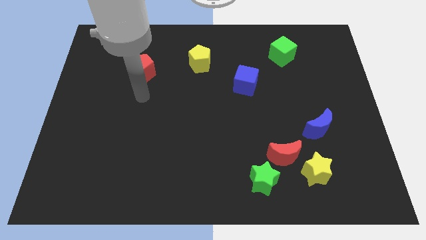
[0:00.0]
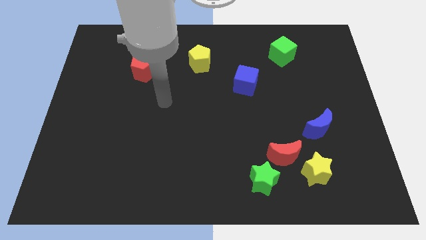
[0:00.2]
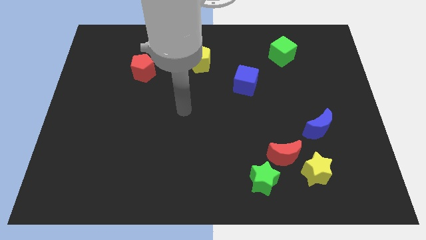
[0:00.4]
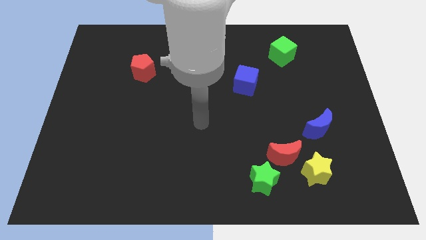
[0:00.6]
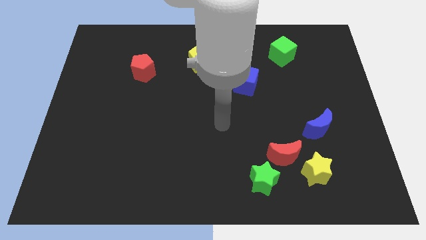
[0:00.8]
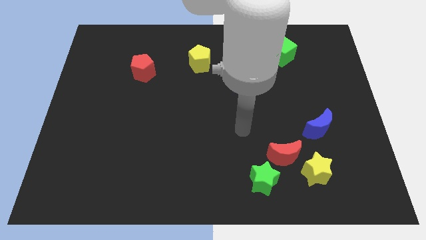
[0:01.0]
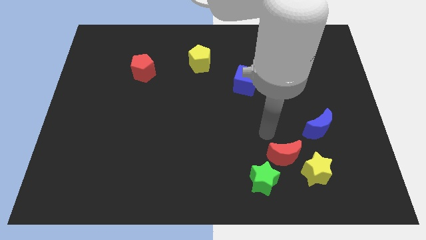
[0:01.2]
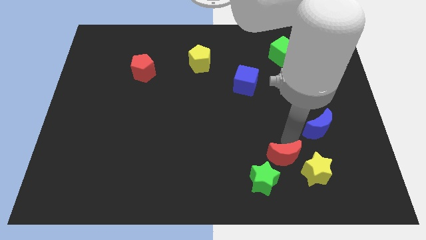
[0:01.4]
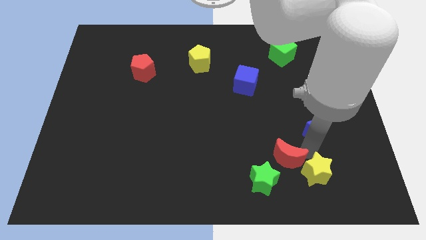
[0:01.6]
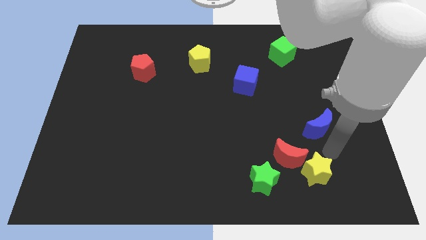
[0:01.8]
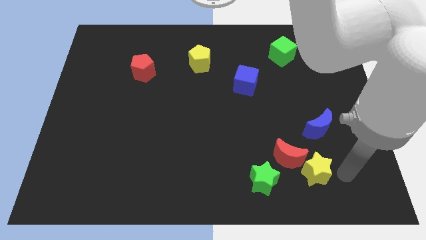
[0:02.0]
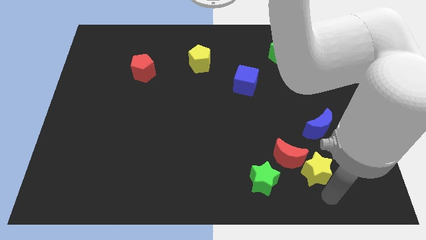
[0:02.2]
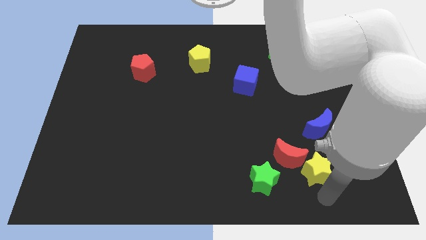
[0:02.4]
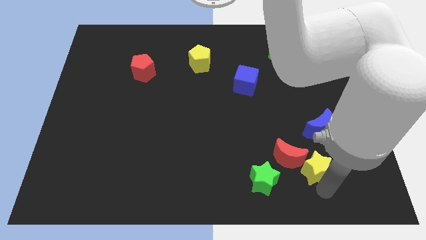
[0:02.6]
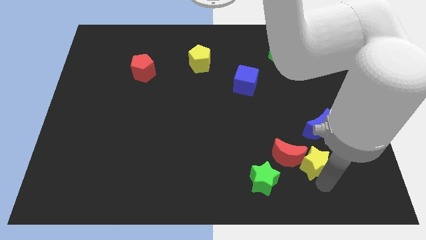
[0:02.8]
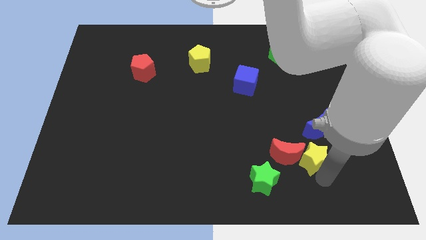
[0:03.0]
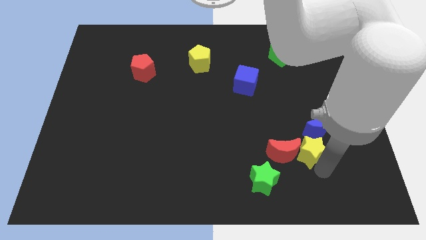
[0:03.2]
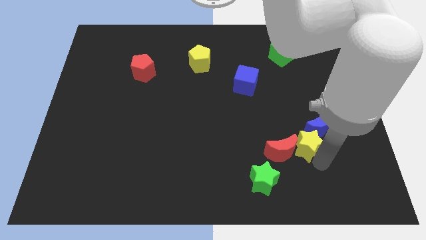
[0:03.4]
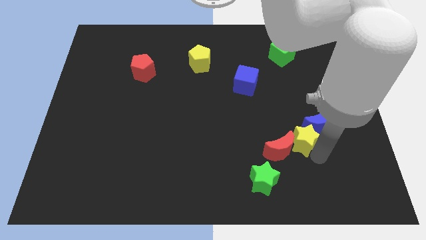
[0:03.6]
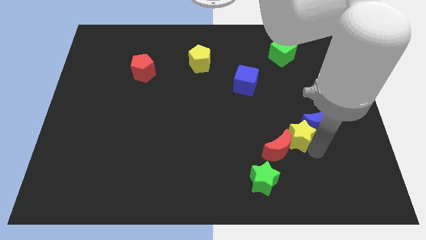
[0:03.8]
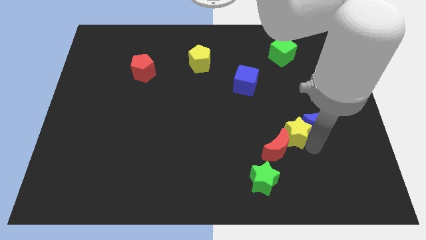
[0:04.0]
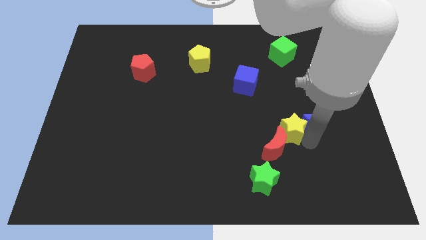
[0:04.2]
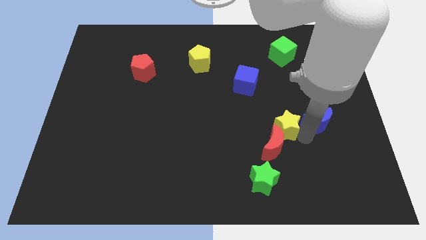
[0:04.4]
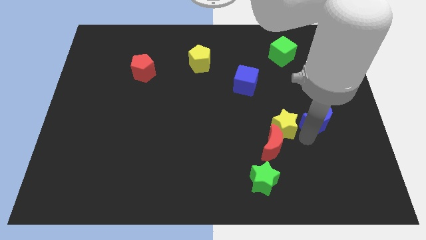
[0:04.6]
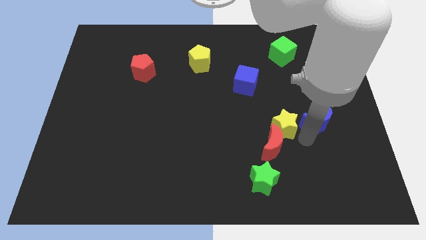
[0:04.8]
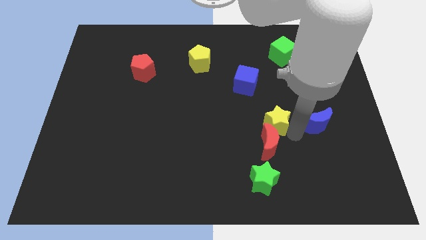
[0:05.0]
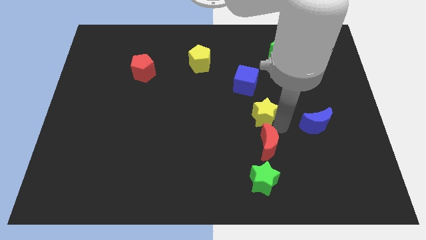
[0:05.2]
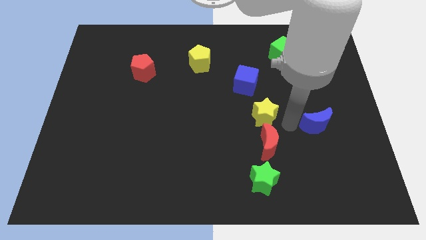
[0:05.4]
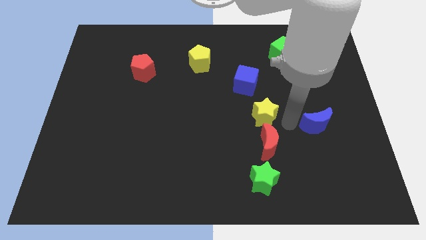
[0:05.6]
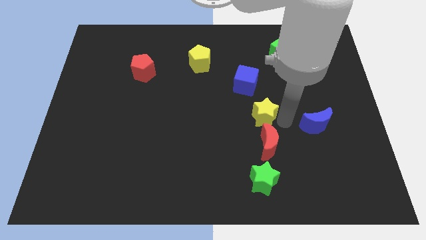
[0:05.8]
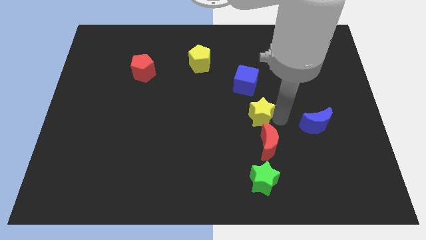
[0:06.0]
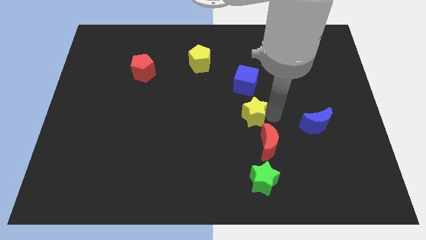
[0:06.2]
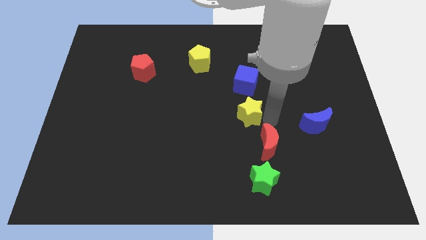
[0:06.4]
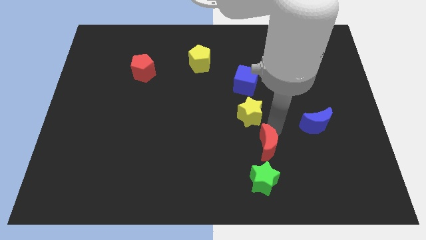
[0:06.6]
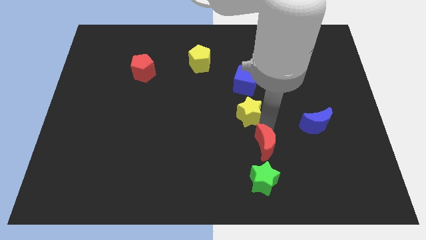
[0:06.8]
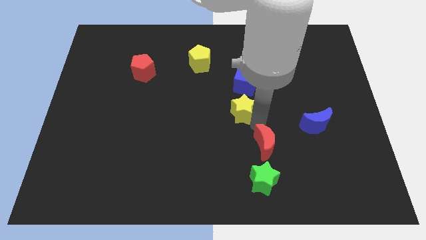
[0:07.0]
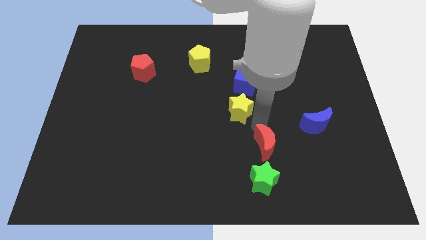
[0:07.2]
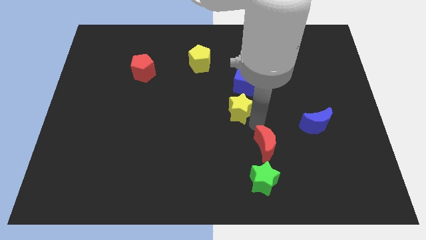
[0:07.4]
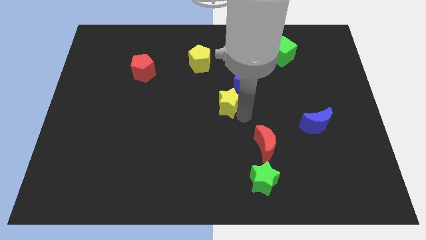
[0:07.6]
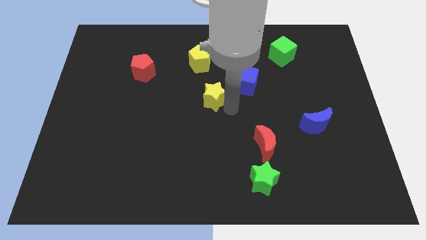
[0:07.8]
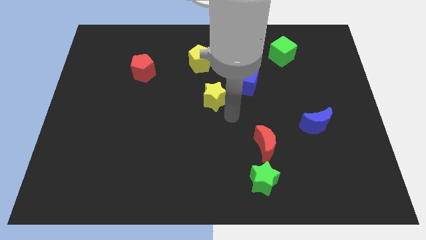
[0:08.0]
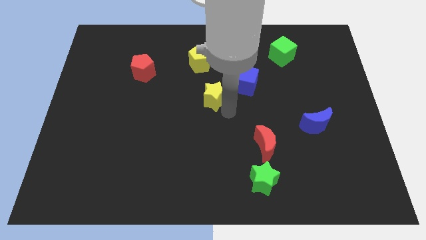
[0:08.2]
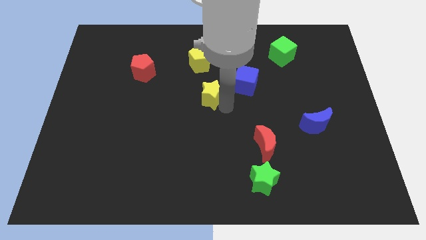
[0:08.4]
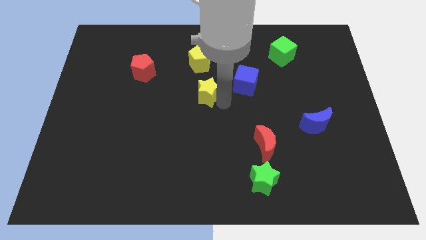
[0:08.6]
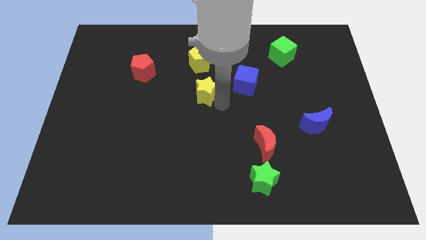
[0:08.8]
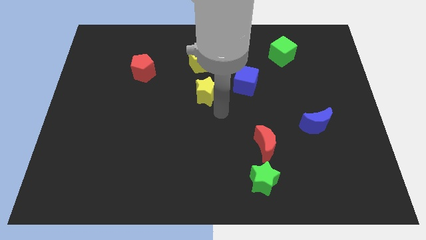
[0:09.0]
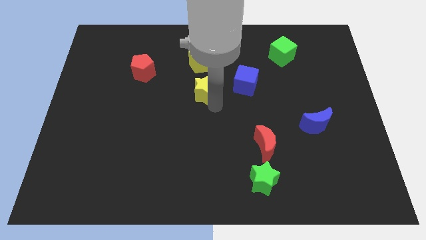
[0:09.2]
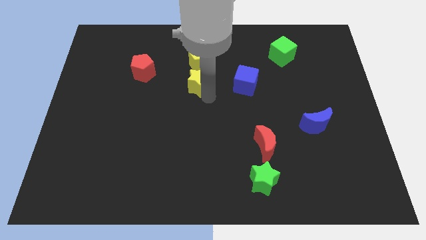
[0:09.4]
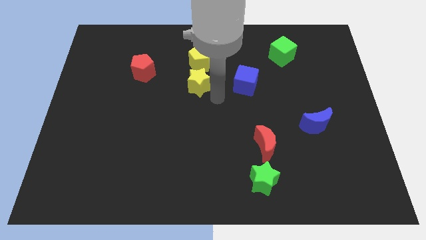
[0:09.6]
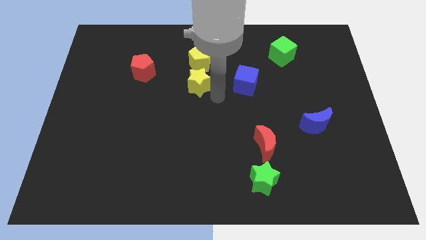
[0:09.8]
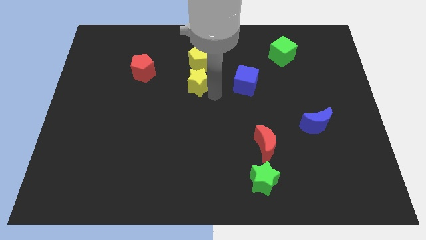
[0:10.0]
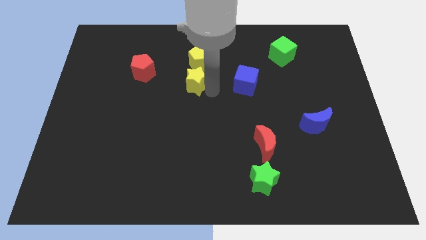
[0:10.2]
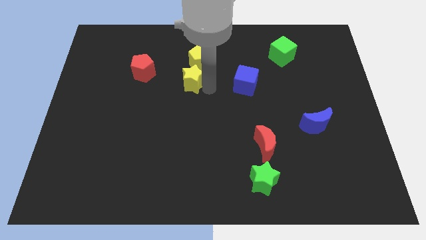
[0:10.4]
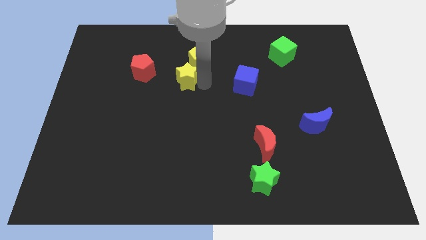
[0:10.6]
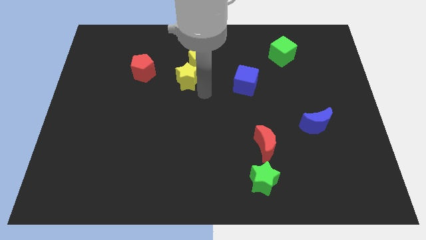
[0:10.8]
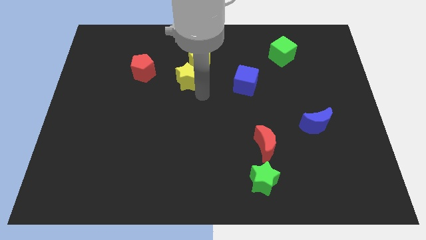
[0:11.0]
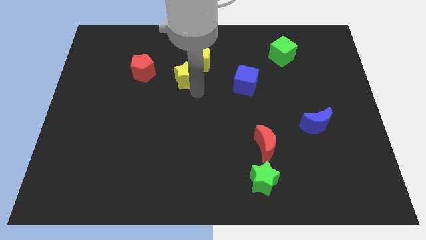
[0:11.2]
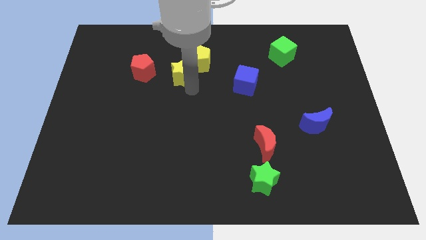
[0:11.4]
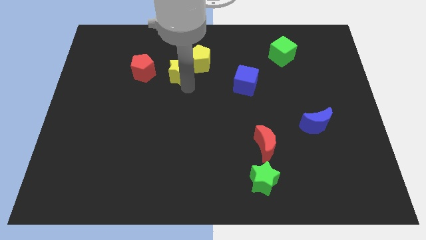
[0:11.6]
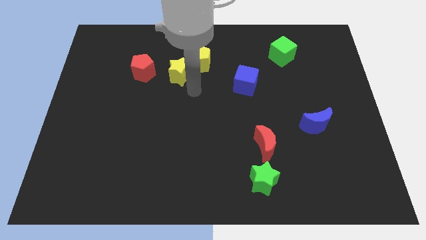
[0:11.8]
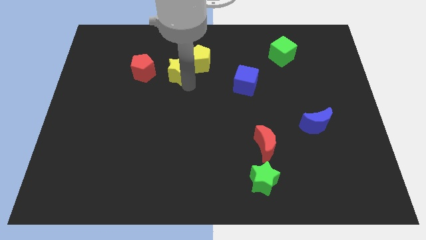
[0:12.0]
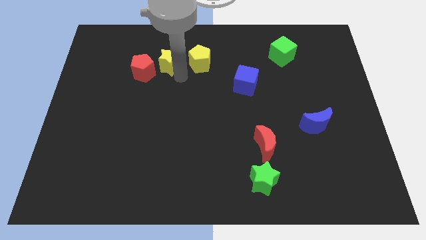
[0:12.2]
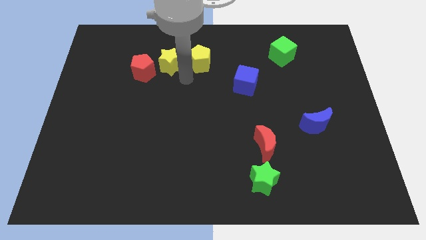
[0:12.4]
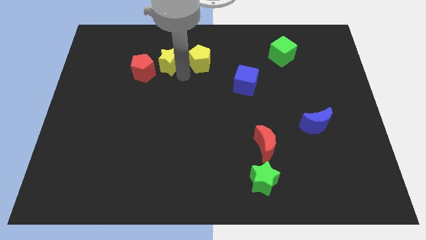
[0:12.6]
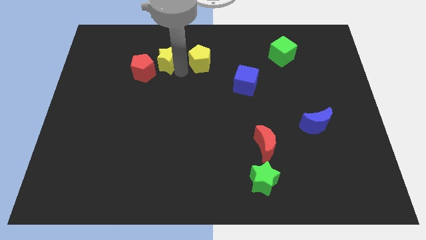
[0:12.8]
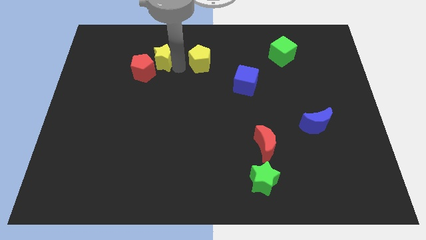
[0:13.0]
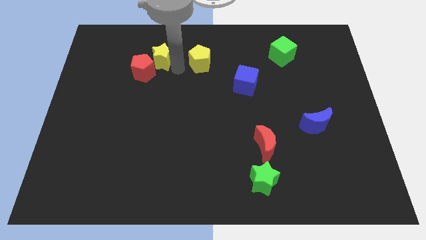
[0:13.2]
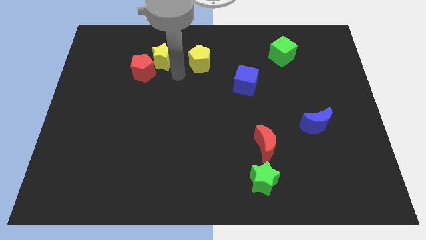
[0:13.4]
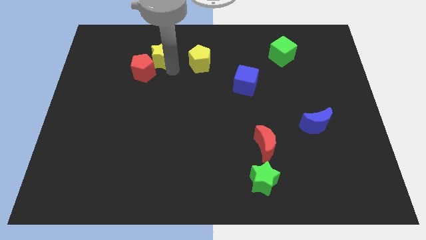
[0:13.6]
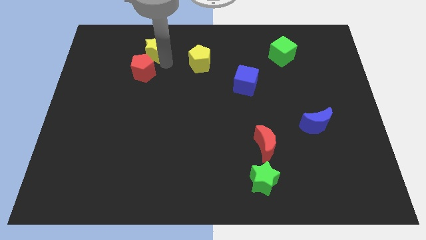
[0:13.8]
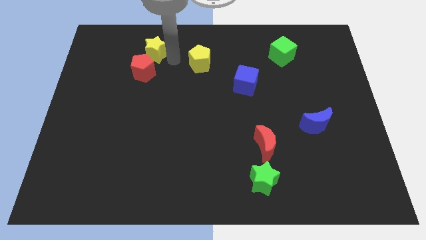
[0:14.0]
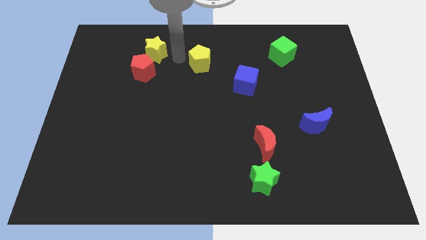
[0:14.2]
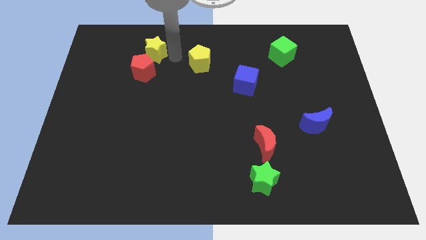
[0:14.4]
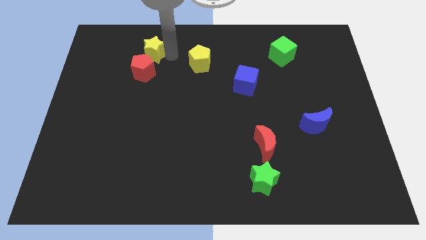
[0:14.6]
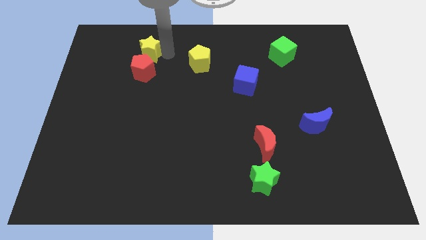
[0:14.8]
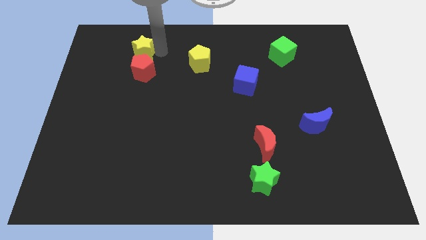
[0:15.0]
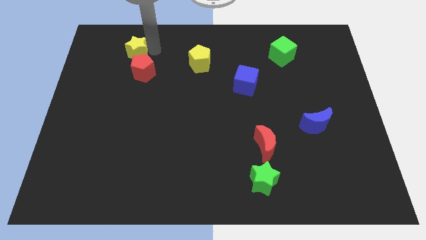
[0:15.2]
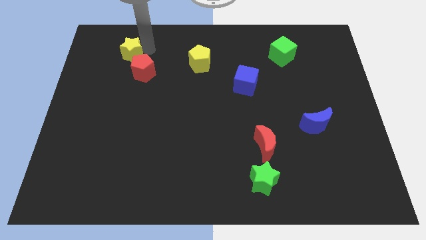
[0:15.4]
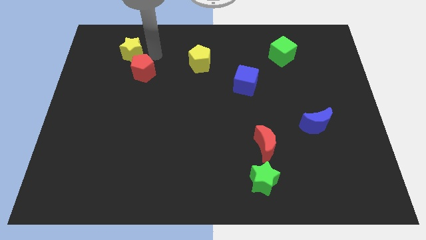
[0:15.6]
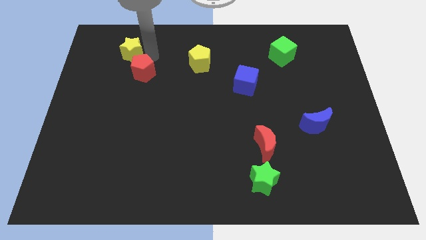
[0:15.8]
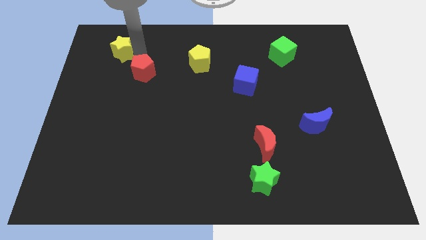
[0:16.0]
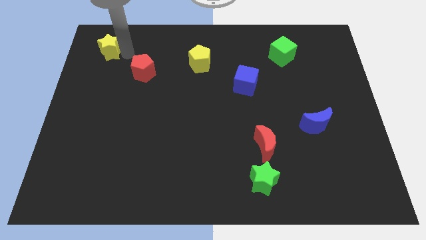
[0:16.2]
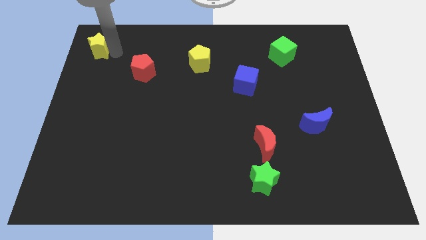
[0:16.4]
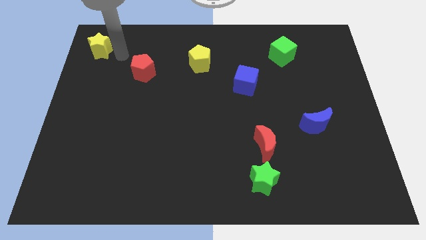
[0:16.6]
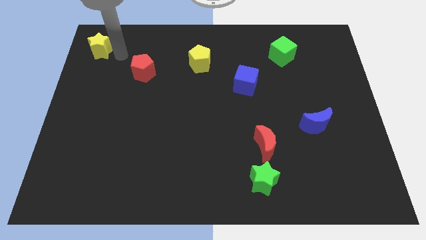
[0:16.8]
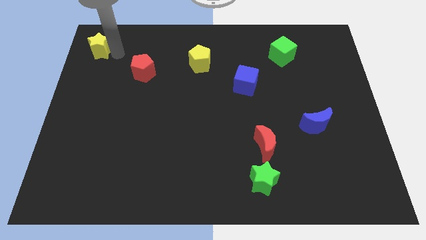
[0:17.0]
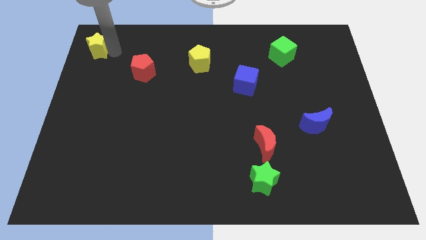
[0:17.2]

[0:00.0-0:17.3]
push the yellow star to the top left
